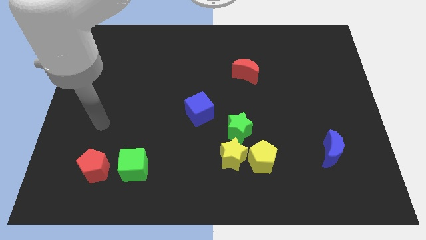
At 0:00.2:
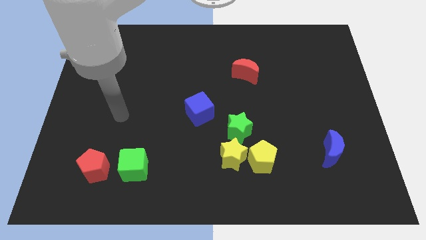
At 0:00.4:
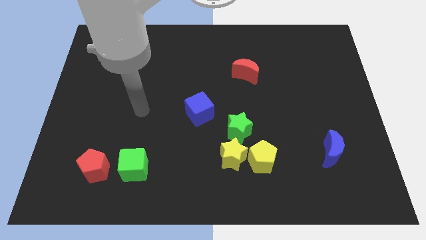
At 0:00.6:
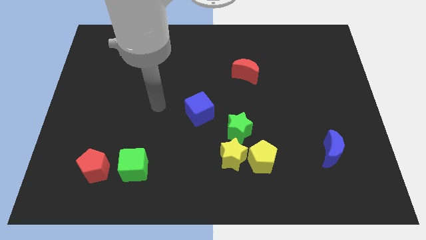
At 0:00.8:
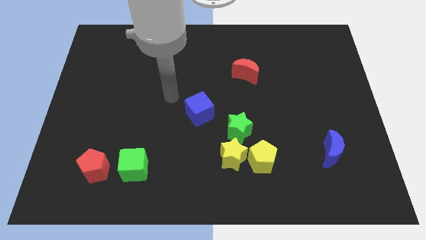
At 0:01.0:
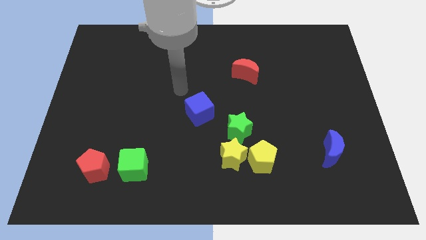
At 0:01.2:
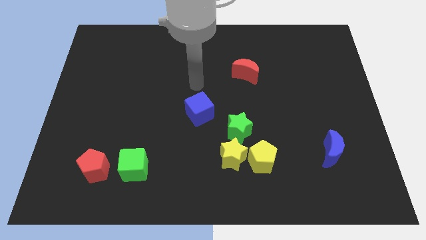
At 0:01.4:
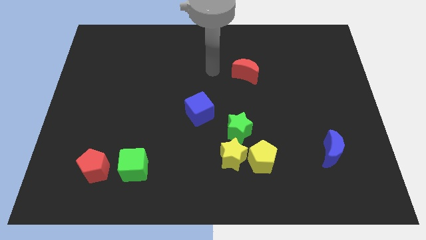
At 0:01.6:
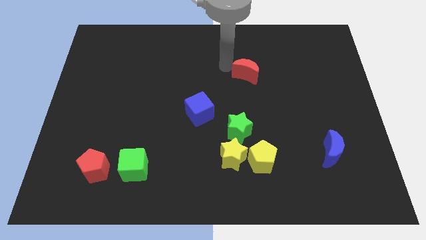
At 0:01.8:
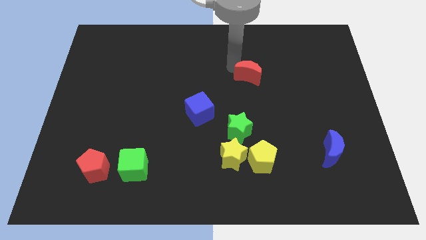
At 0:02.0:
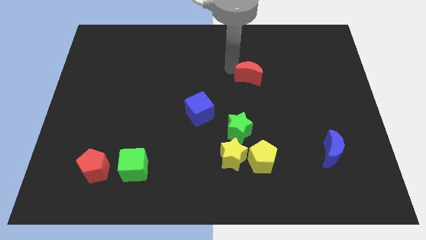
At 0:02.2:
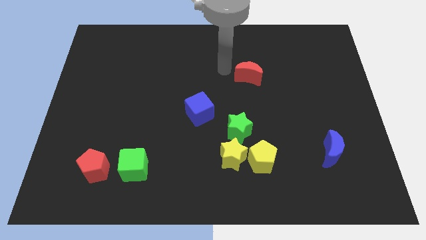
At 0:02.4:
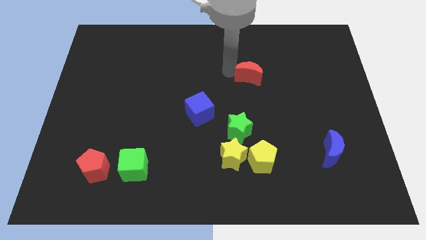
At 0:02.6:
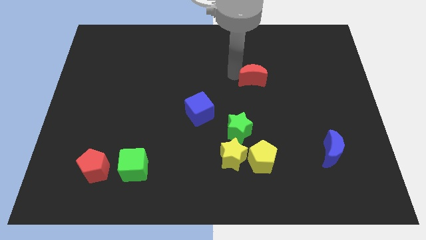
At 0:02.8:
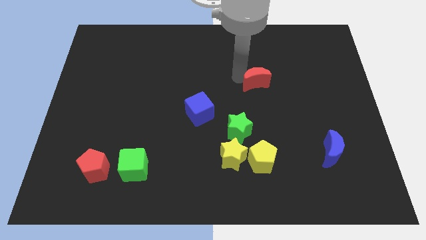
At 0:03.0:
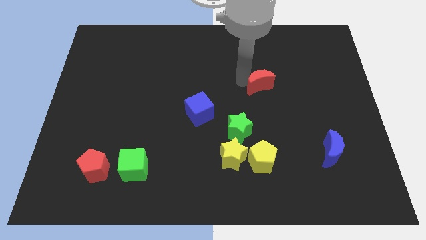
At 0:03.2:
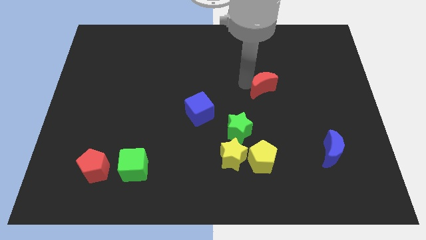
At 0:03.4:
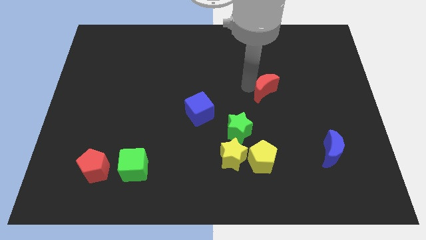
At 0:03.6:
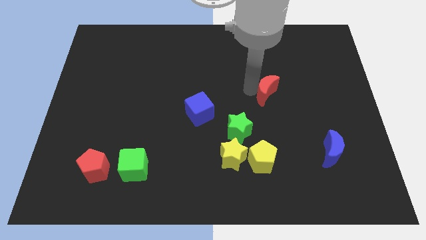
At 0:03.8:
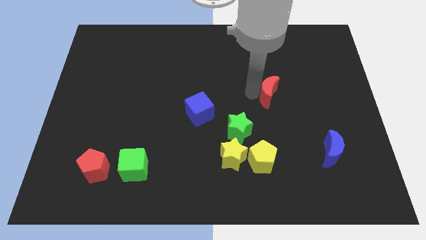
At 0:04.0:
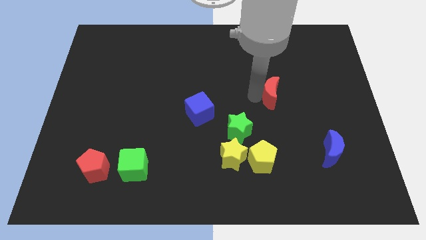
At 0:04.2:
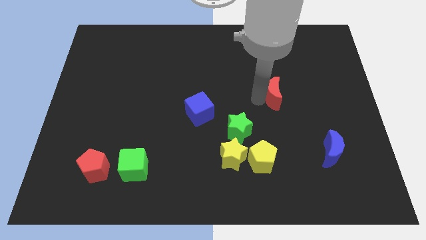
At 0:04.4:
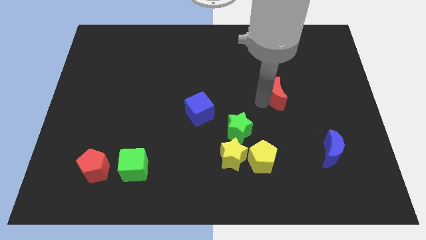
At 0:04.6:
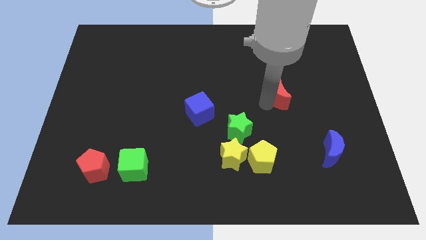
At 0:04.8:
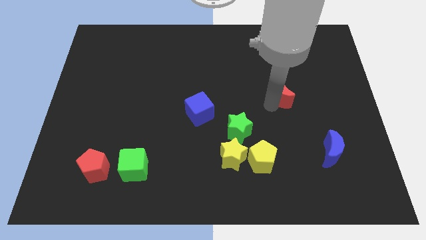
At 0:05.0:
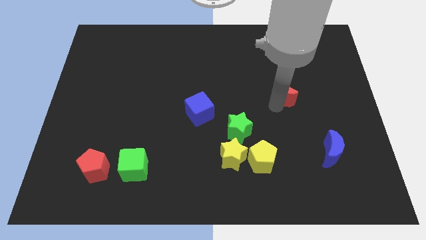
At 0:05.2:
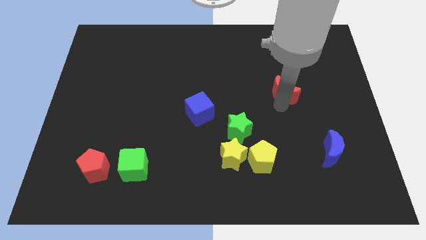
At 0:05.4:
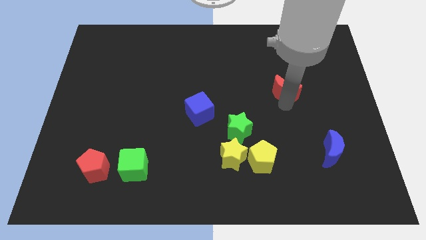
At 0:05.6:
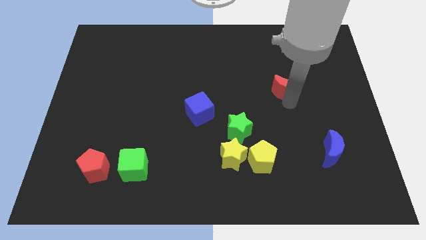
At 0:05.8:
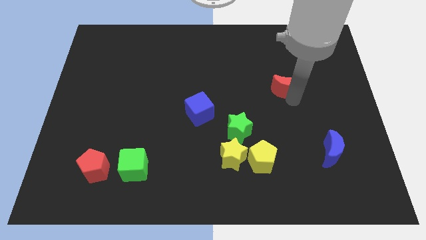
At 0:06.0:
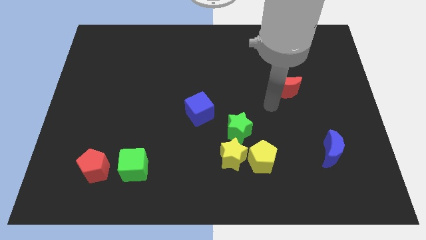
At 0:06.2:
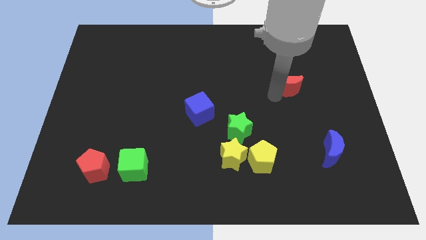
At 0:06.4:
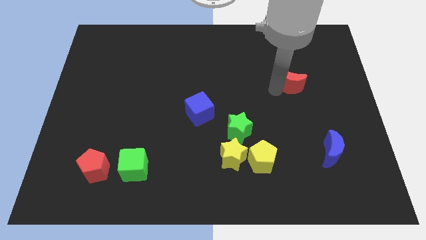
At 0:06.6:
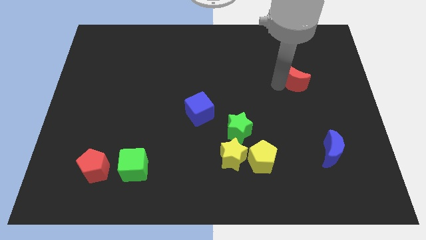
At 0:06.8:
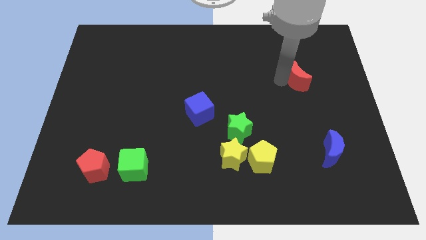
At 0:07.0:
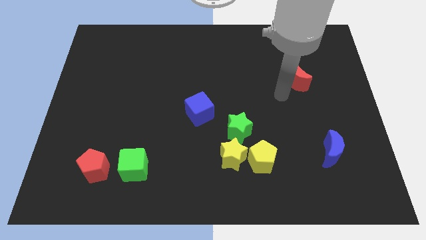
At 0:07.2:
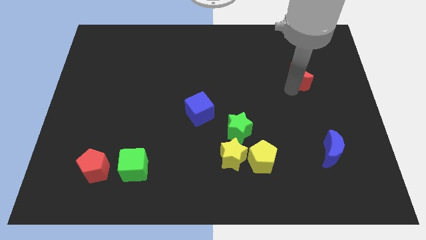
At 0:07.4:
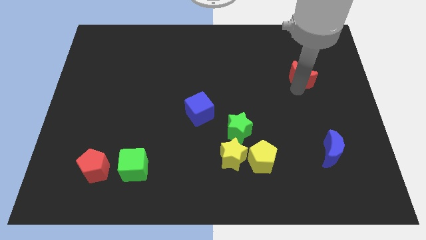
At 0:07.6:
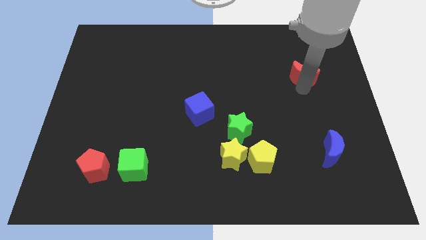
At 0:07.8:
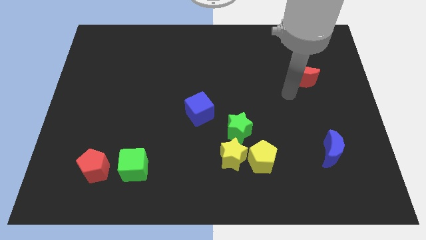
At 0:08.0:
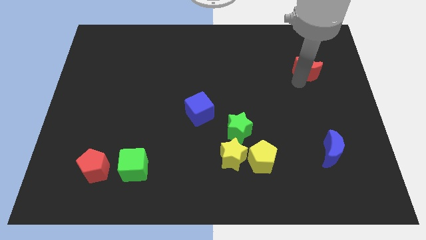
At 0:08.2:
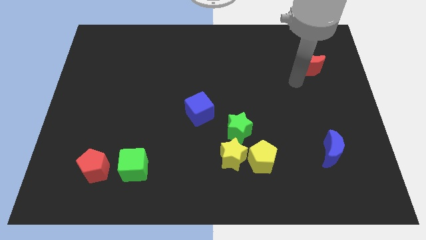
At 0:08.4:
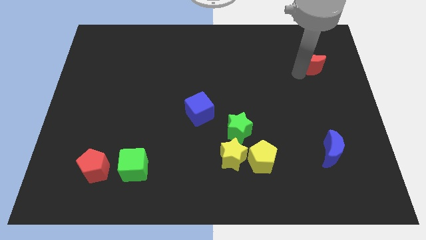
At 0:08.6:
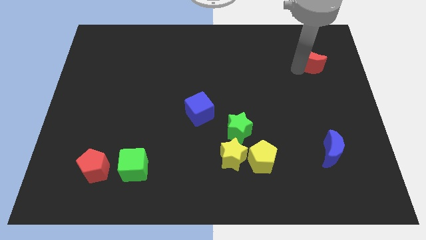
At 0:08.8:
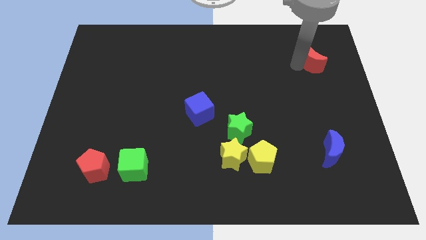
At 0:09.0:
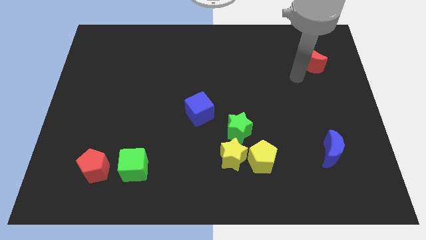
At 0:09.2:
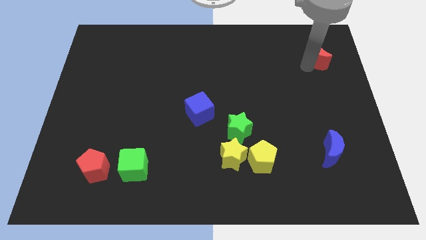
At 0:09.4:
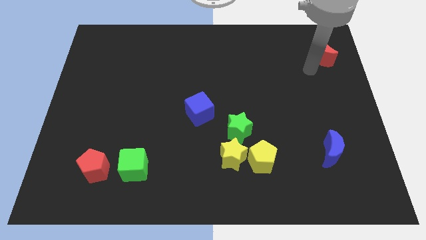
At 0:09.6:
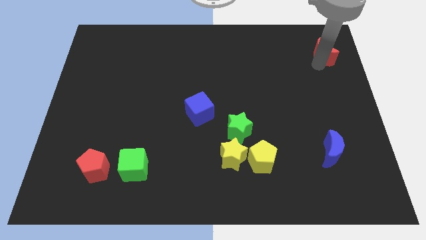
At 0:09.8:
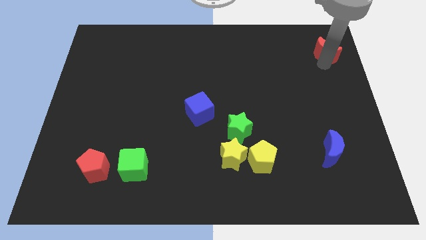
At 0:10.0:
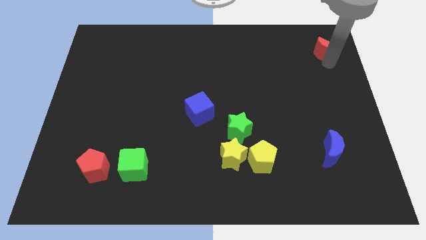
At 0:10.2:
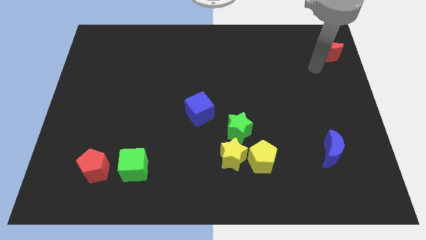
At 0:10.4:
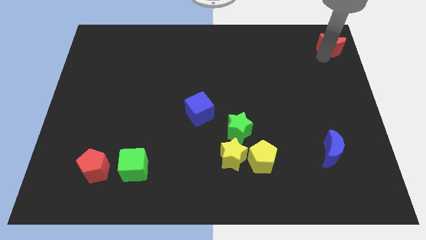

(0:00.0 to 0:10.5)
slide the red moon to the upper right corner

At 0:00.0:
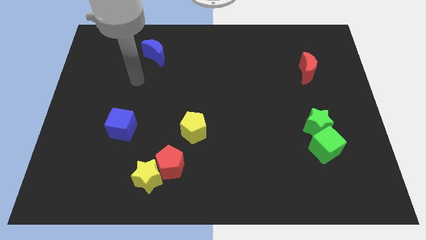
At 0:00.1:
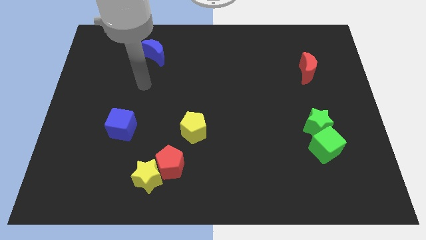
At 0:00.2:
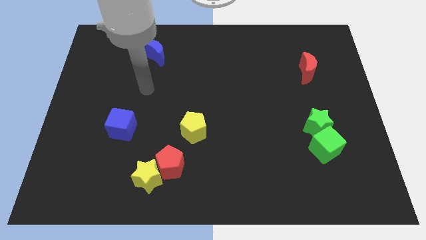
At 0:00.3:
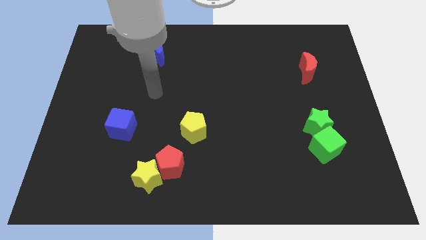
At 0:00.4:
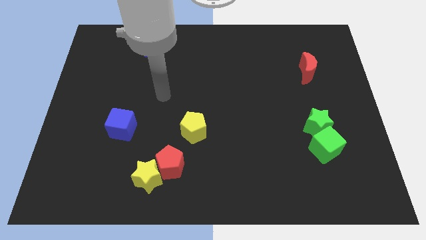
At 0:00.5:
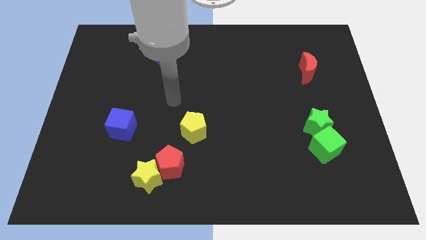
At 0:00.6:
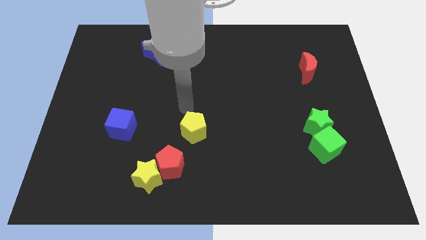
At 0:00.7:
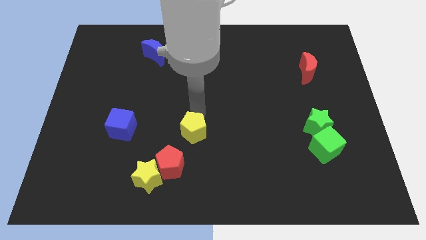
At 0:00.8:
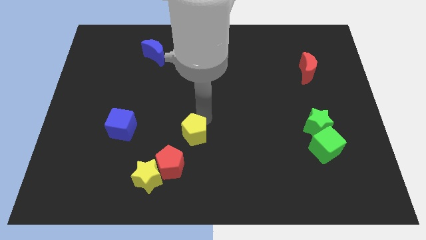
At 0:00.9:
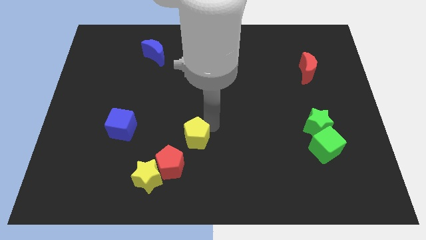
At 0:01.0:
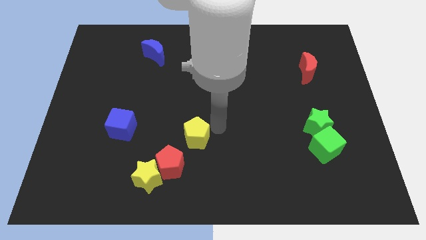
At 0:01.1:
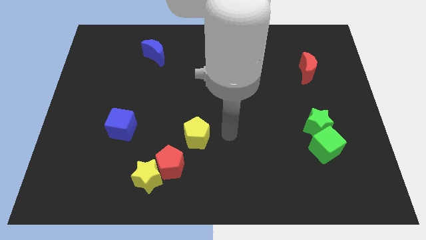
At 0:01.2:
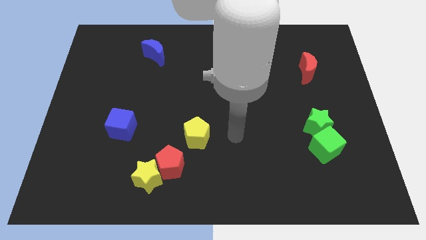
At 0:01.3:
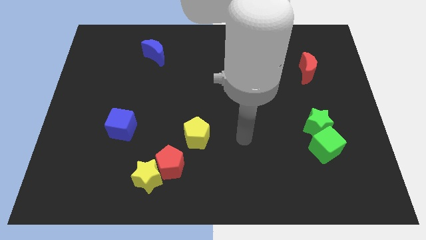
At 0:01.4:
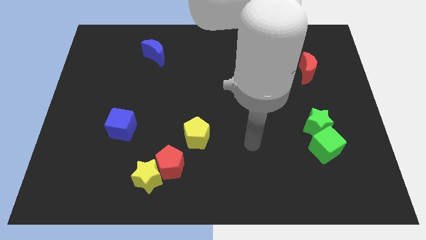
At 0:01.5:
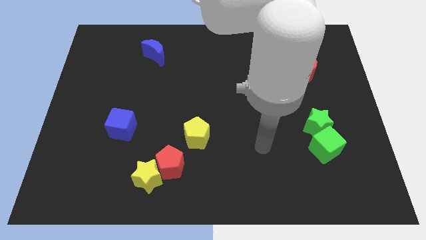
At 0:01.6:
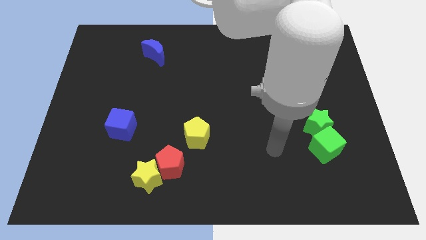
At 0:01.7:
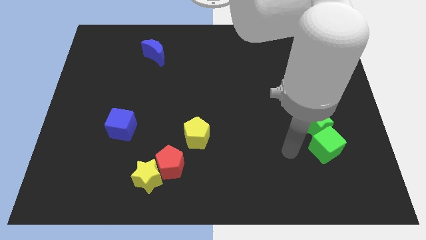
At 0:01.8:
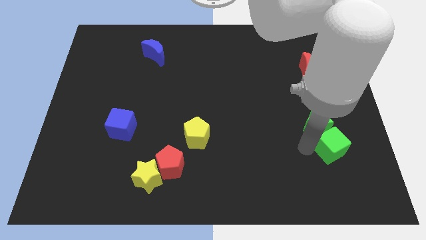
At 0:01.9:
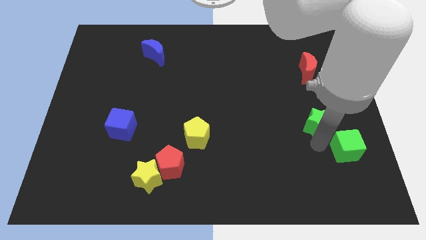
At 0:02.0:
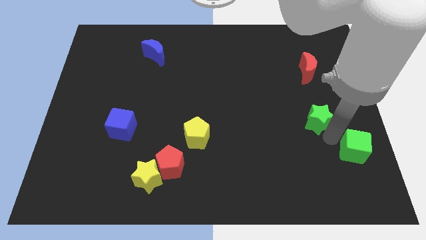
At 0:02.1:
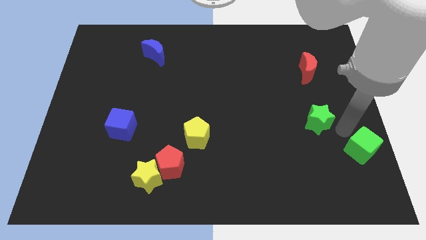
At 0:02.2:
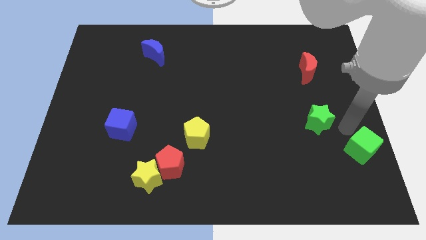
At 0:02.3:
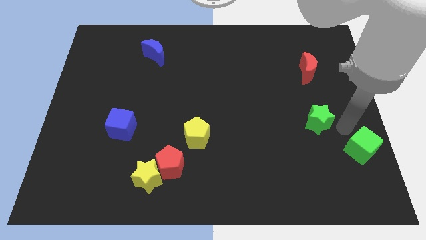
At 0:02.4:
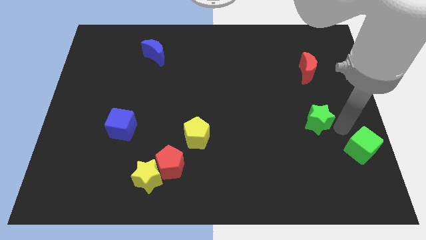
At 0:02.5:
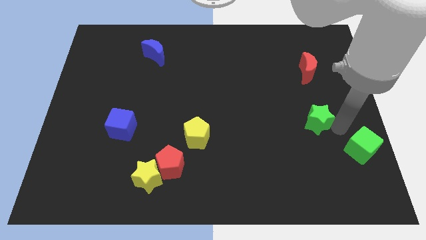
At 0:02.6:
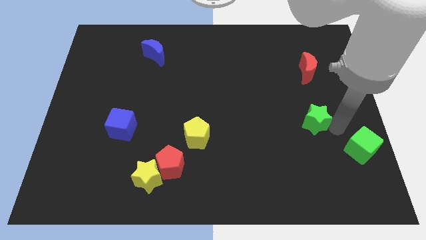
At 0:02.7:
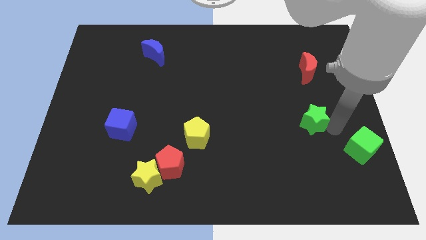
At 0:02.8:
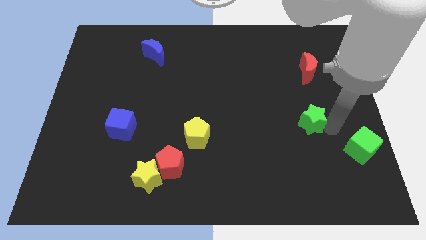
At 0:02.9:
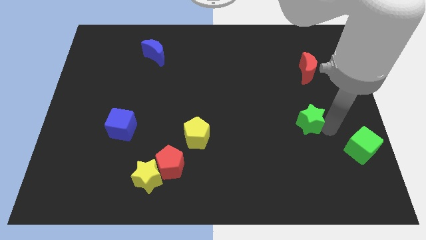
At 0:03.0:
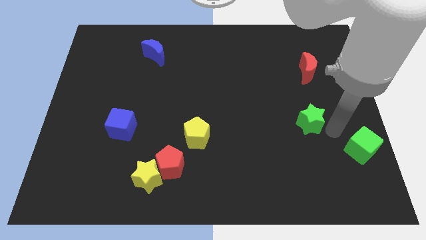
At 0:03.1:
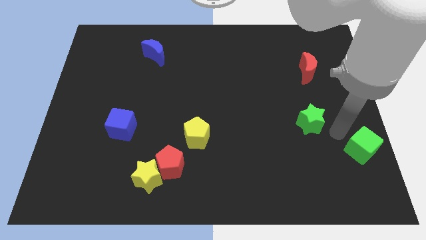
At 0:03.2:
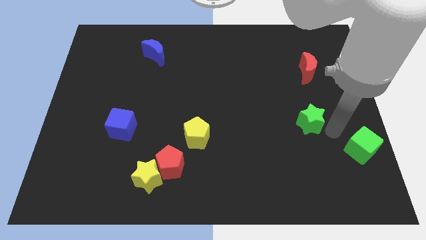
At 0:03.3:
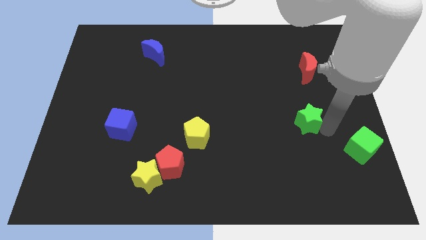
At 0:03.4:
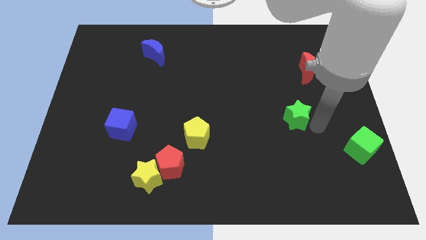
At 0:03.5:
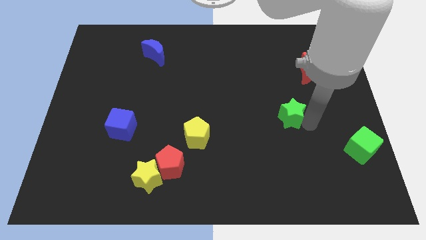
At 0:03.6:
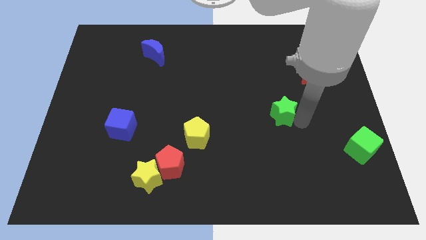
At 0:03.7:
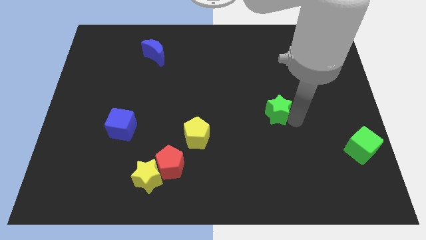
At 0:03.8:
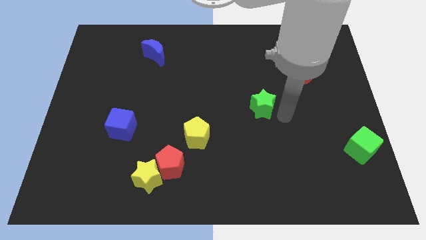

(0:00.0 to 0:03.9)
push the green star to the middle
